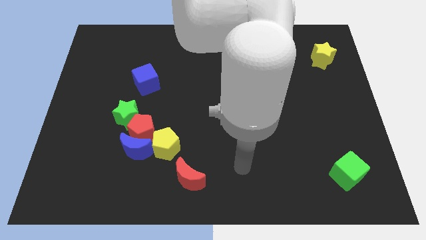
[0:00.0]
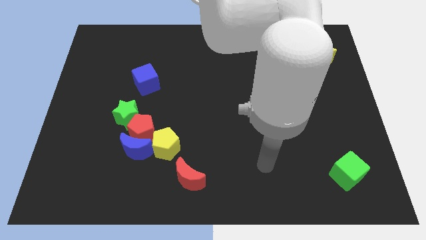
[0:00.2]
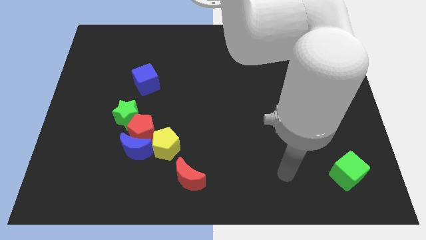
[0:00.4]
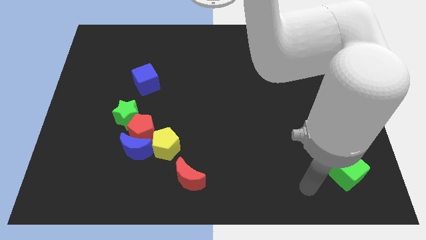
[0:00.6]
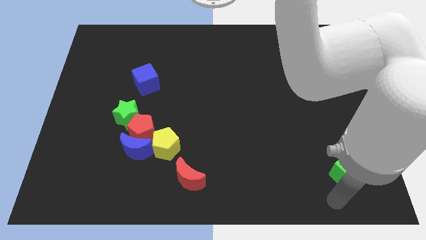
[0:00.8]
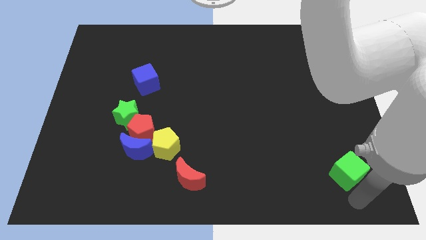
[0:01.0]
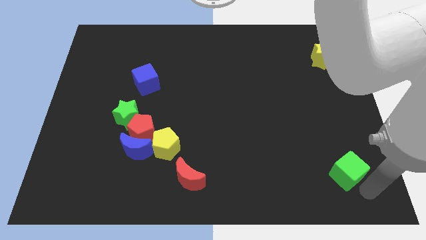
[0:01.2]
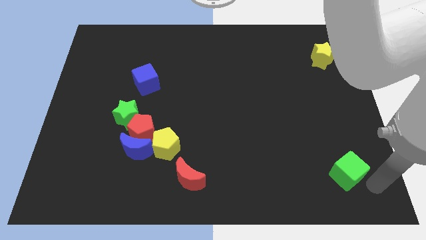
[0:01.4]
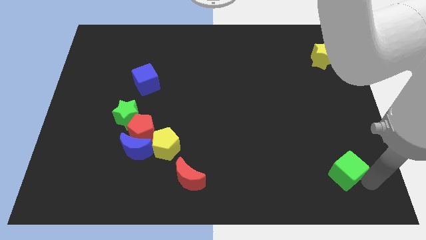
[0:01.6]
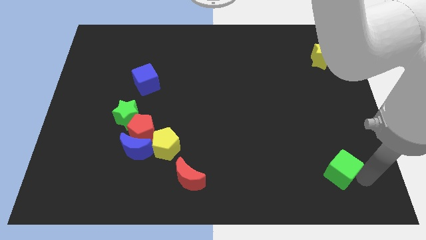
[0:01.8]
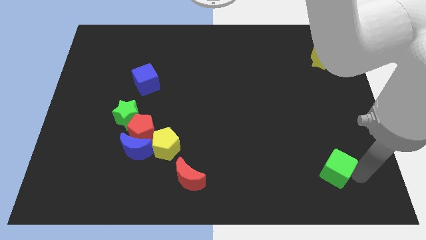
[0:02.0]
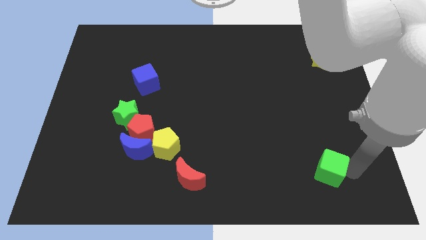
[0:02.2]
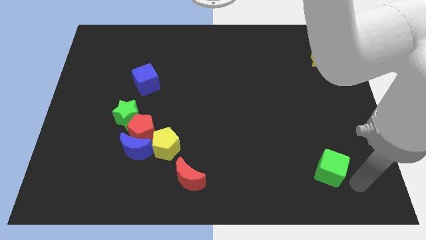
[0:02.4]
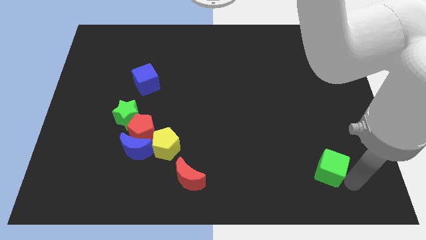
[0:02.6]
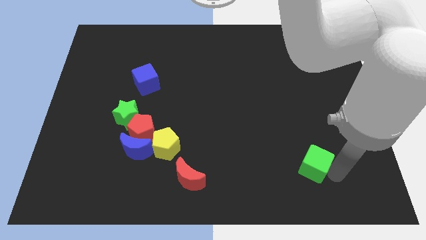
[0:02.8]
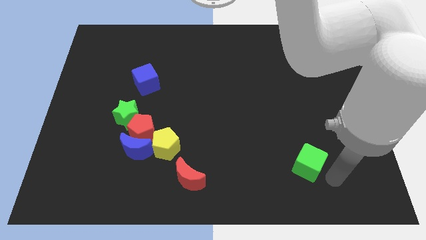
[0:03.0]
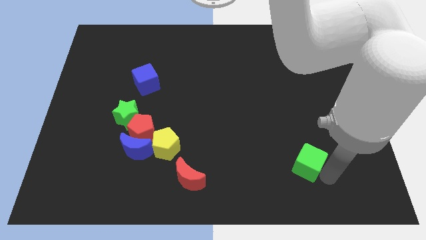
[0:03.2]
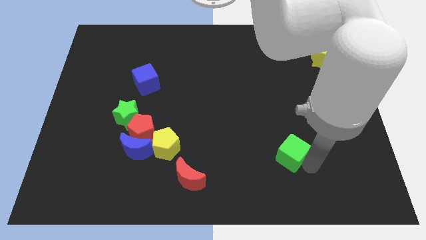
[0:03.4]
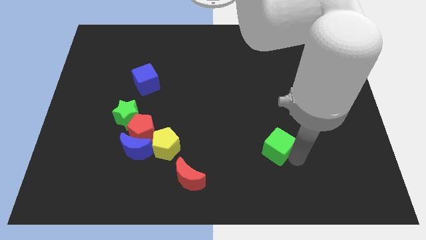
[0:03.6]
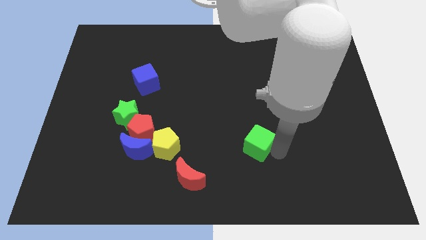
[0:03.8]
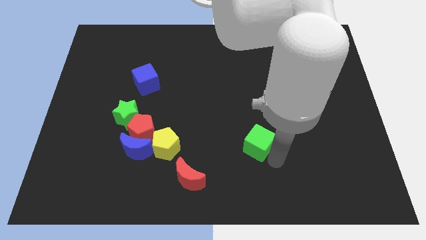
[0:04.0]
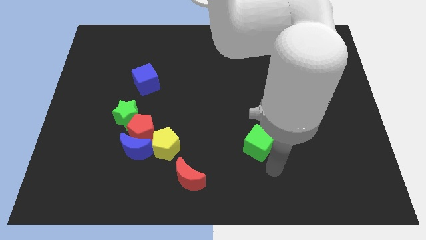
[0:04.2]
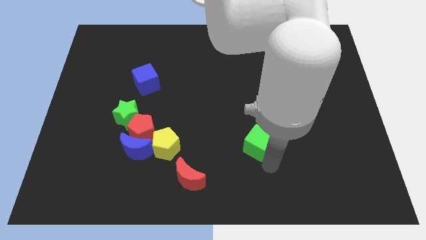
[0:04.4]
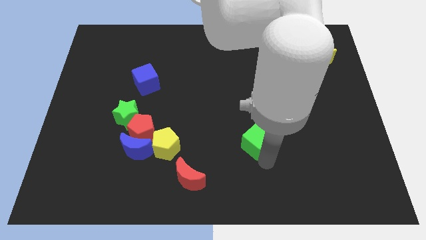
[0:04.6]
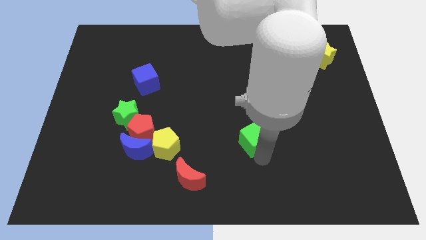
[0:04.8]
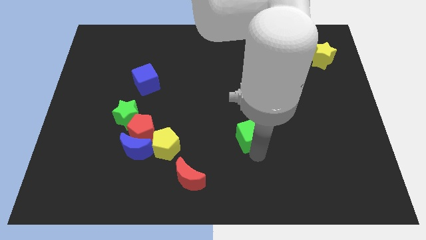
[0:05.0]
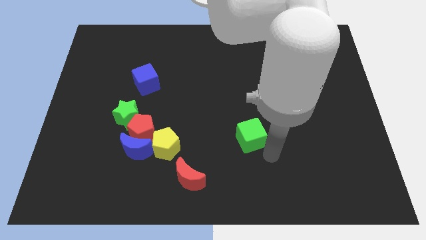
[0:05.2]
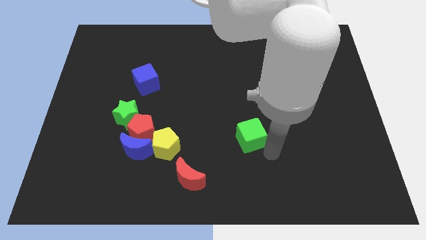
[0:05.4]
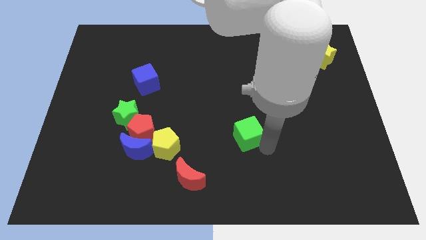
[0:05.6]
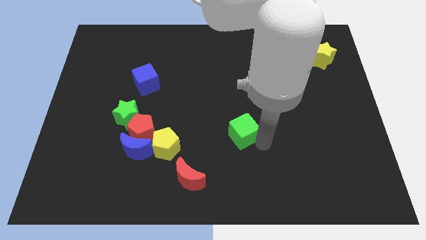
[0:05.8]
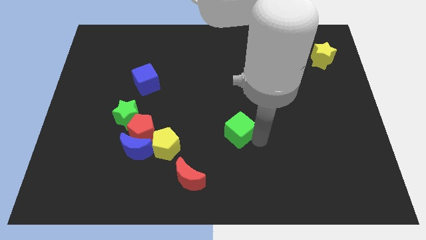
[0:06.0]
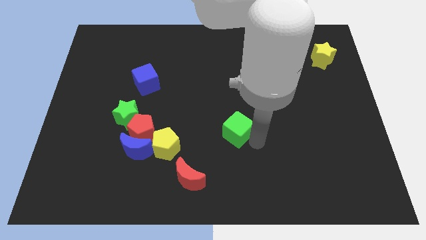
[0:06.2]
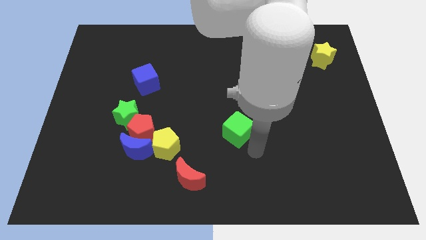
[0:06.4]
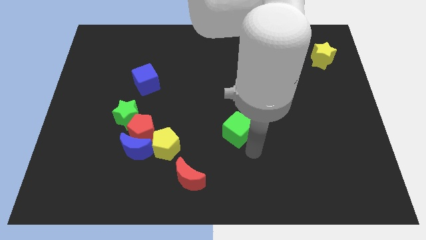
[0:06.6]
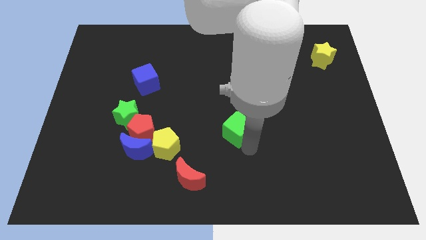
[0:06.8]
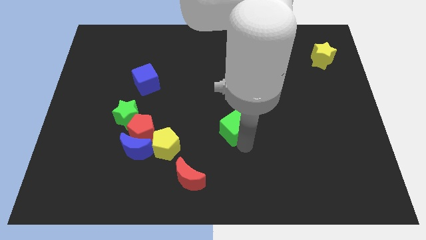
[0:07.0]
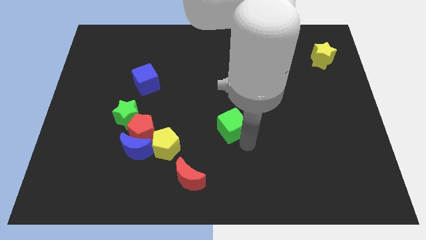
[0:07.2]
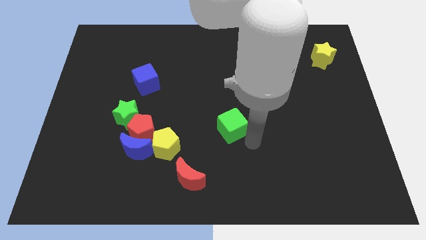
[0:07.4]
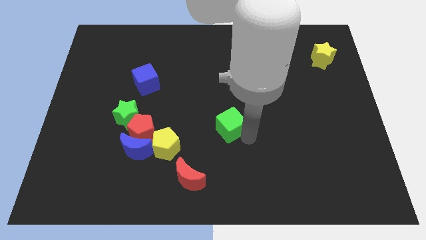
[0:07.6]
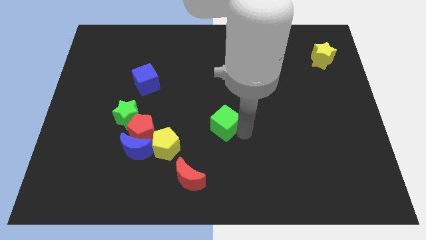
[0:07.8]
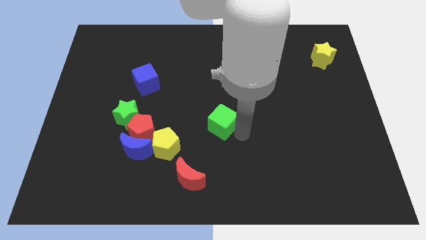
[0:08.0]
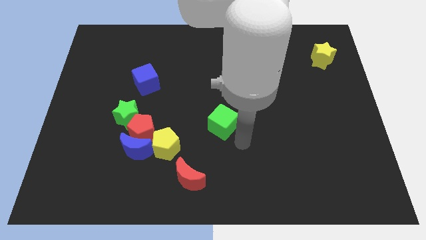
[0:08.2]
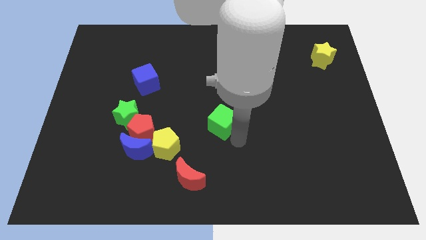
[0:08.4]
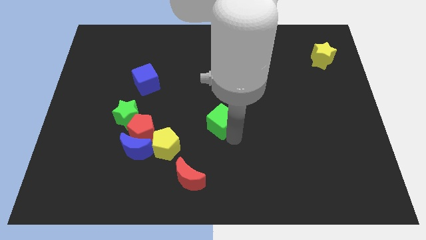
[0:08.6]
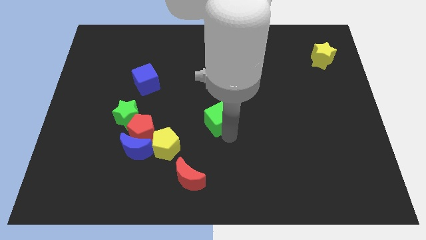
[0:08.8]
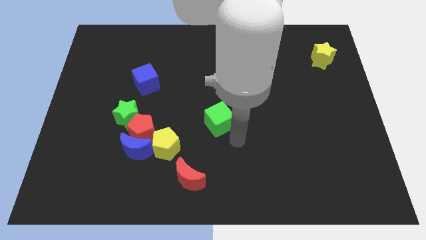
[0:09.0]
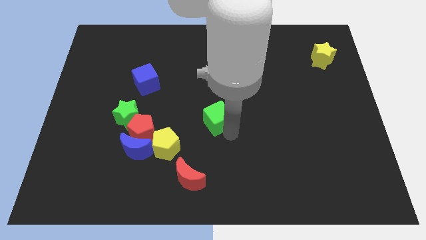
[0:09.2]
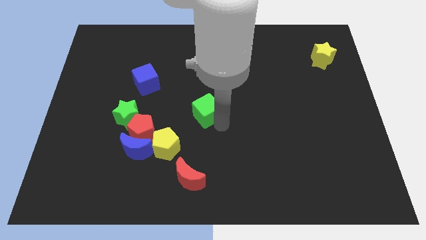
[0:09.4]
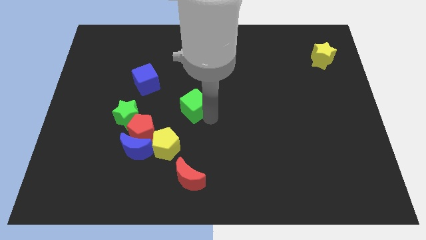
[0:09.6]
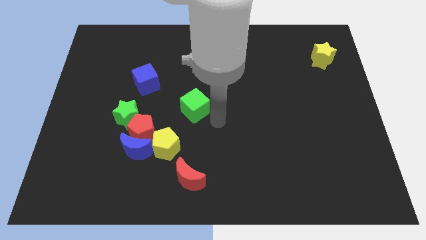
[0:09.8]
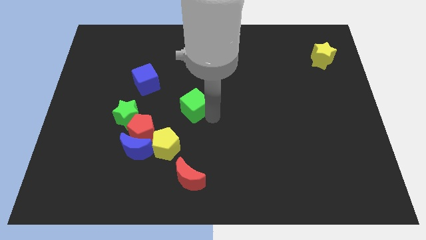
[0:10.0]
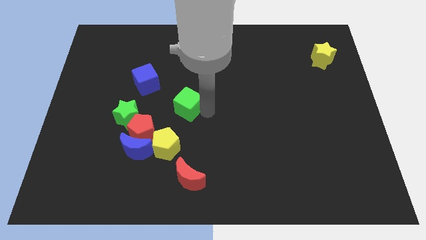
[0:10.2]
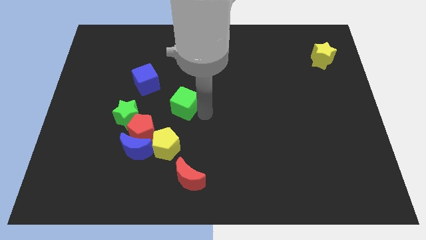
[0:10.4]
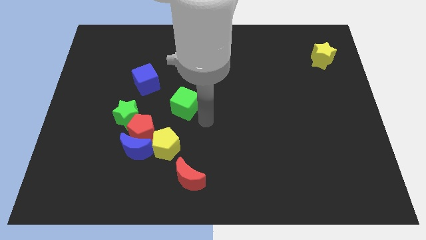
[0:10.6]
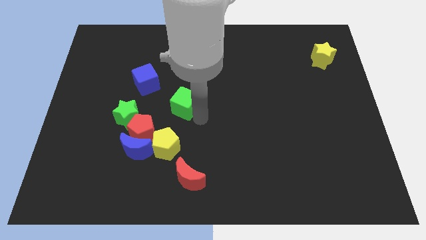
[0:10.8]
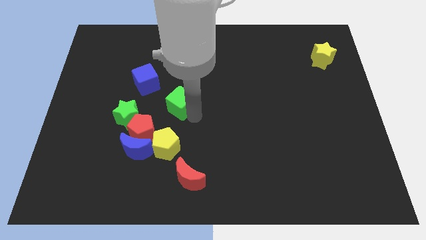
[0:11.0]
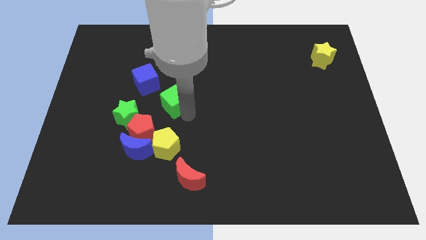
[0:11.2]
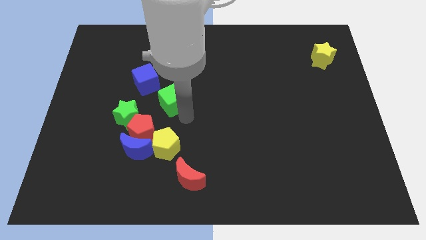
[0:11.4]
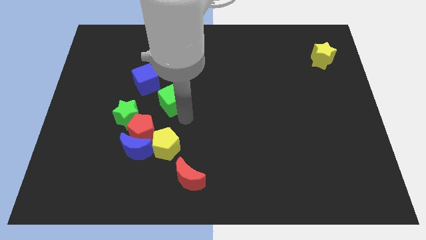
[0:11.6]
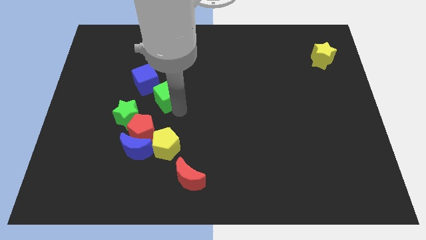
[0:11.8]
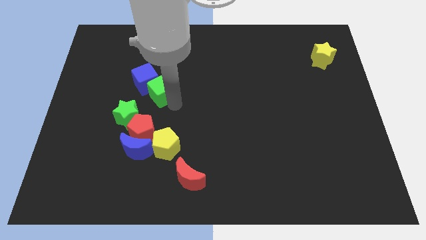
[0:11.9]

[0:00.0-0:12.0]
put the green cube next to the blue cube

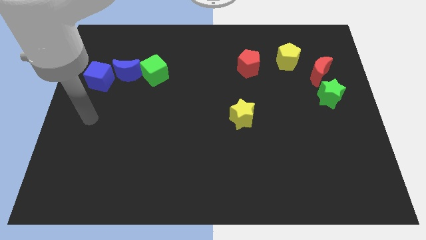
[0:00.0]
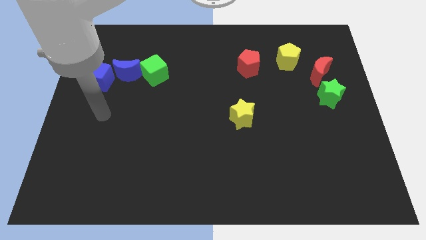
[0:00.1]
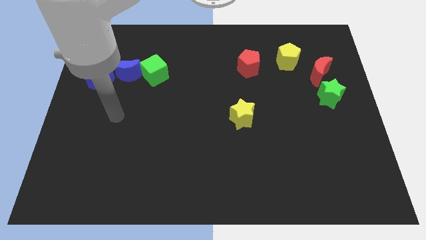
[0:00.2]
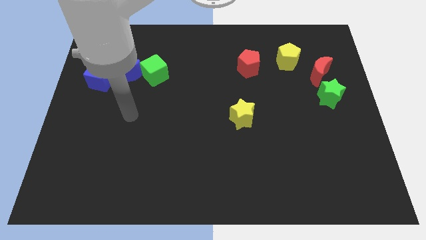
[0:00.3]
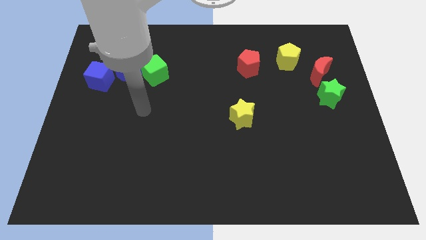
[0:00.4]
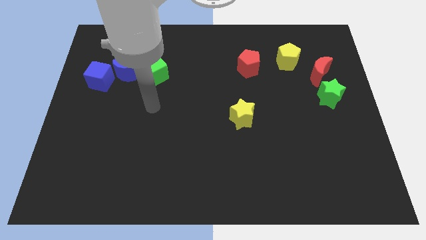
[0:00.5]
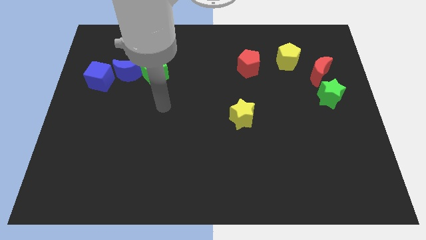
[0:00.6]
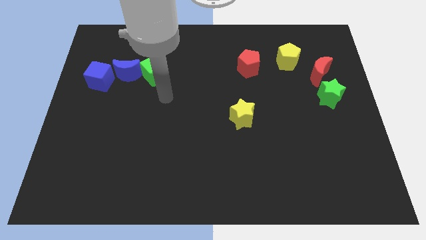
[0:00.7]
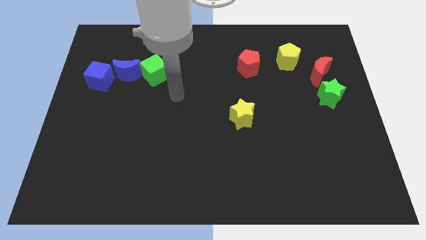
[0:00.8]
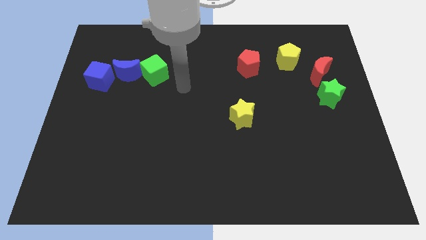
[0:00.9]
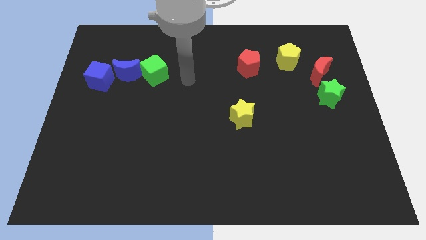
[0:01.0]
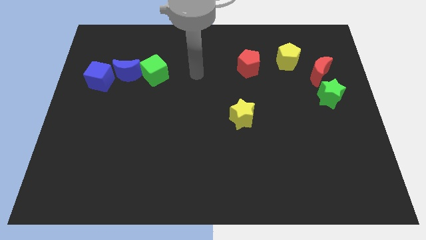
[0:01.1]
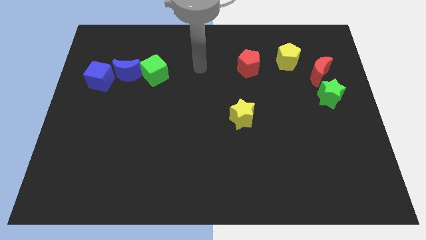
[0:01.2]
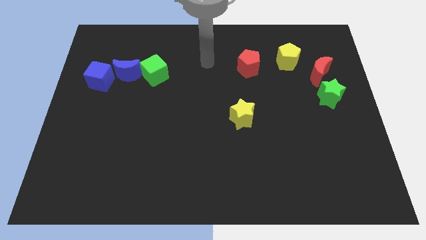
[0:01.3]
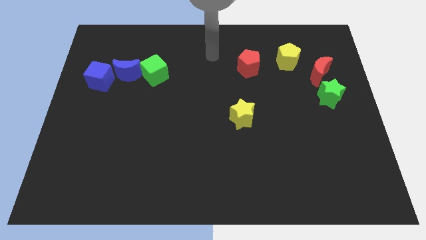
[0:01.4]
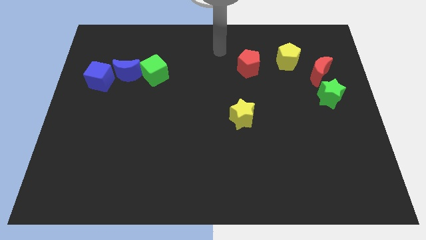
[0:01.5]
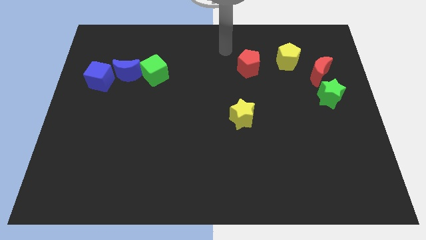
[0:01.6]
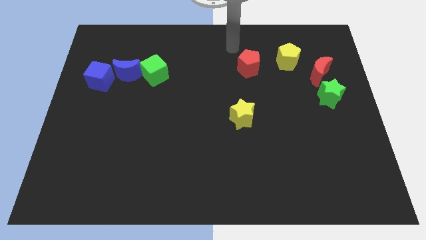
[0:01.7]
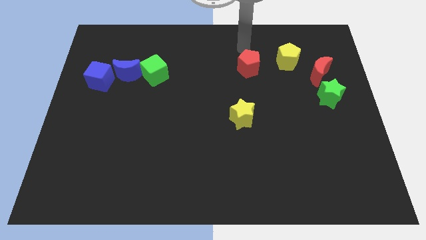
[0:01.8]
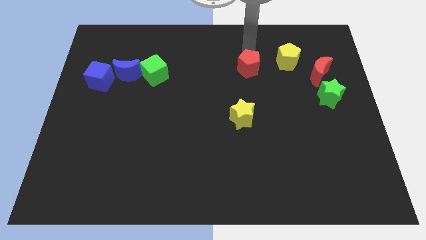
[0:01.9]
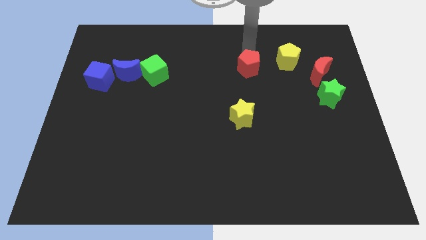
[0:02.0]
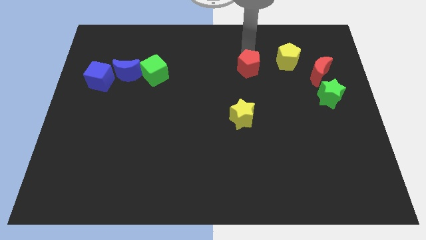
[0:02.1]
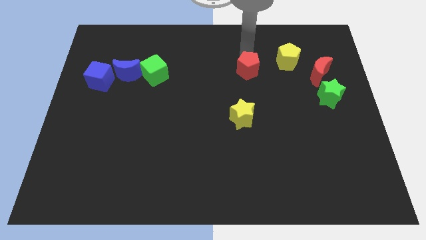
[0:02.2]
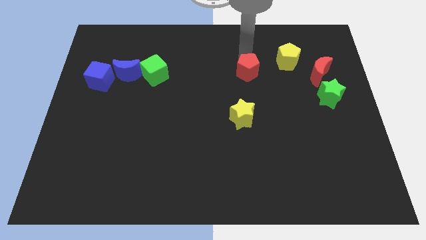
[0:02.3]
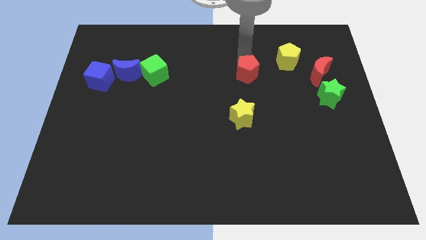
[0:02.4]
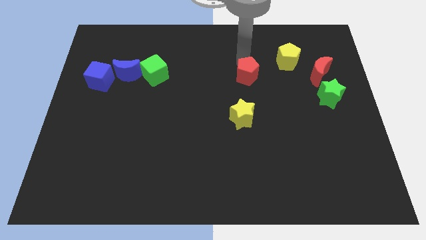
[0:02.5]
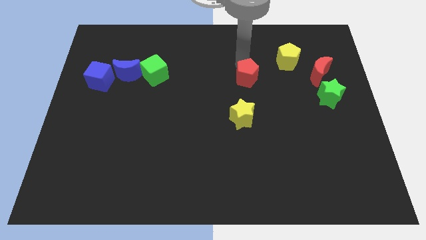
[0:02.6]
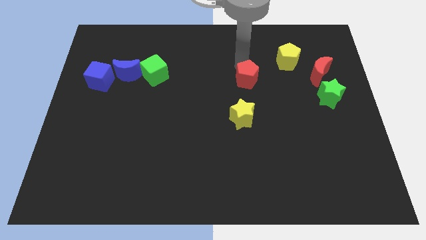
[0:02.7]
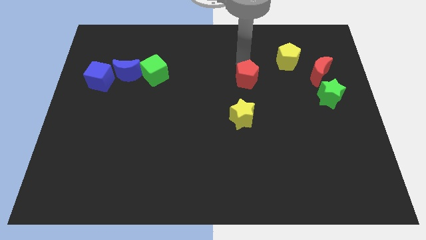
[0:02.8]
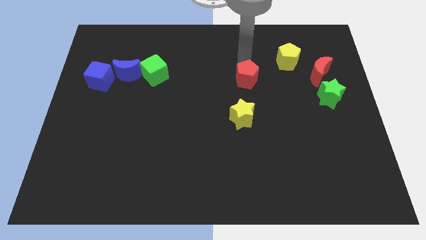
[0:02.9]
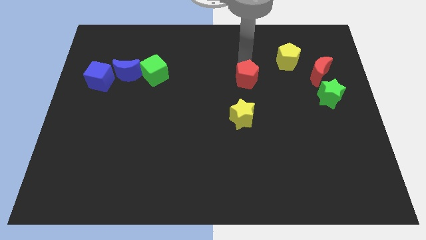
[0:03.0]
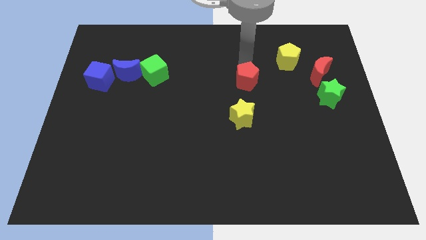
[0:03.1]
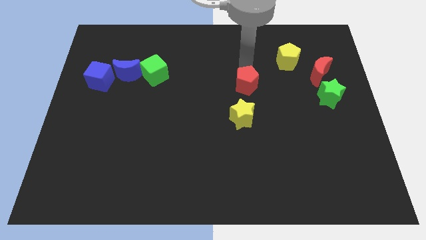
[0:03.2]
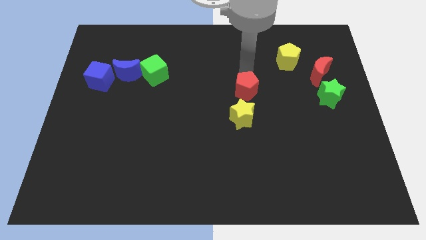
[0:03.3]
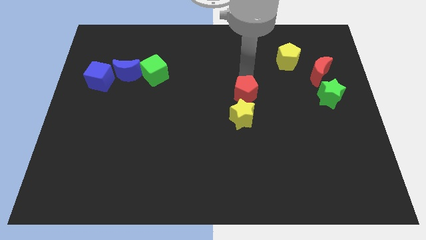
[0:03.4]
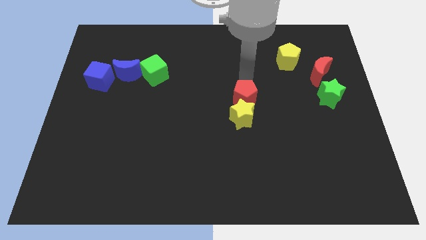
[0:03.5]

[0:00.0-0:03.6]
put the red pentagon to the yellow star
